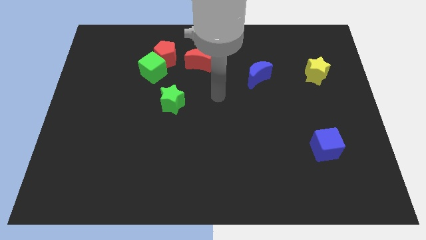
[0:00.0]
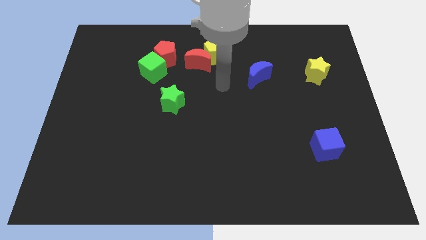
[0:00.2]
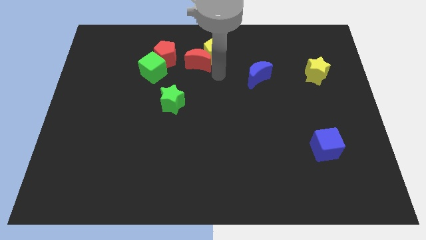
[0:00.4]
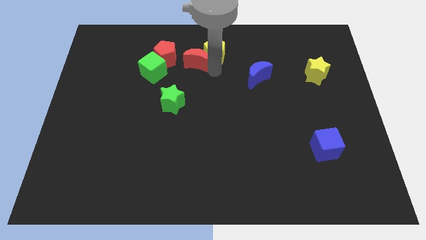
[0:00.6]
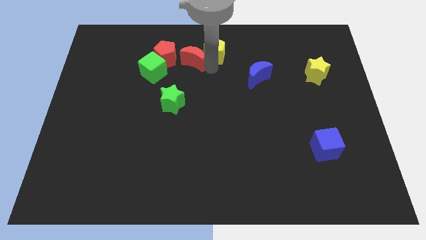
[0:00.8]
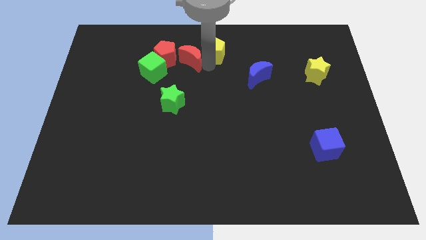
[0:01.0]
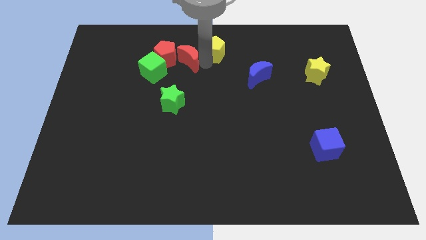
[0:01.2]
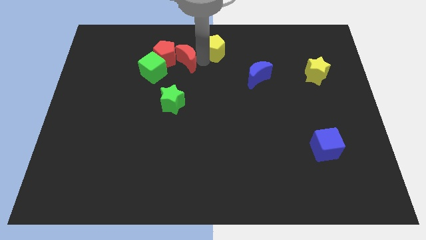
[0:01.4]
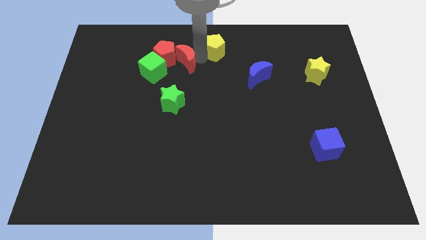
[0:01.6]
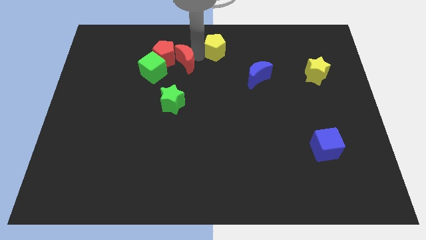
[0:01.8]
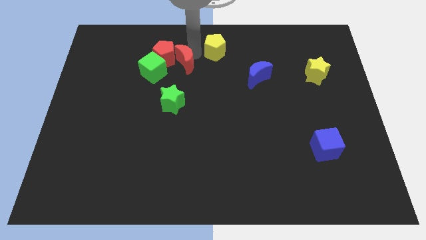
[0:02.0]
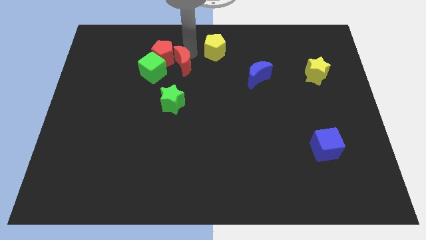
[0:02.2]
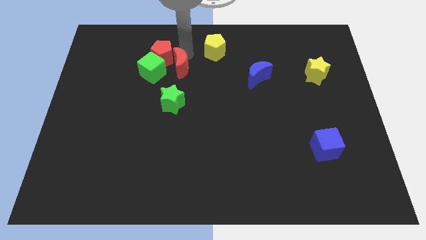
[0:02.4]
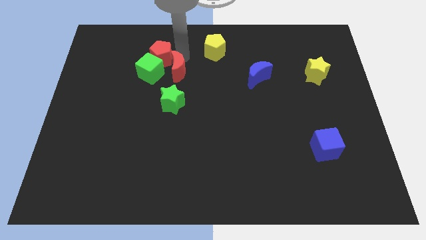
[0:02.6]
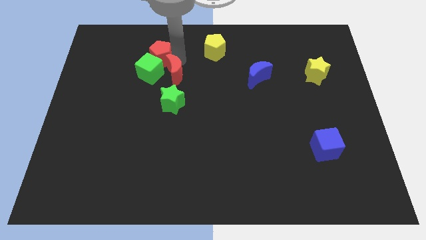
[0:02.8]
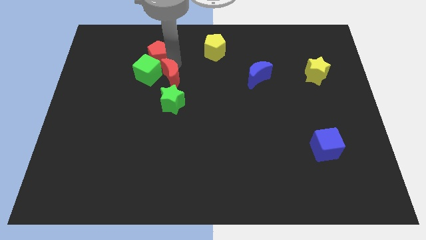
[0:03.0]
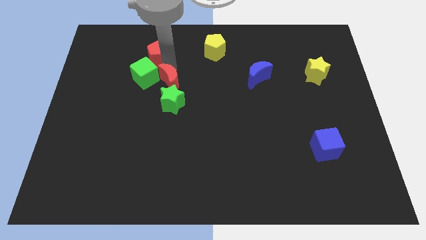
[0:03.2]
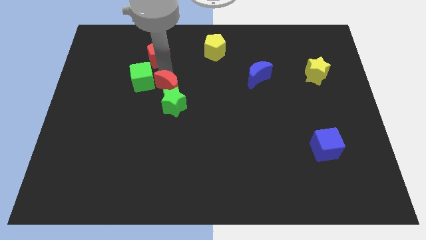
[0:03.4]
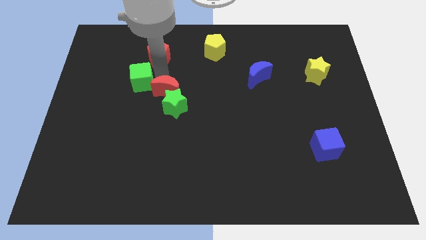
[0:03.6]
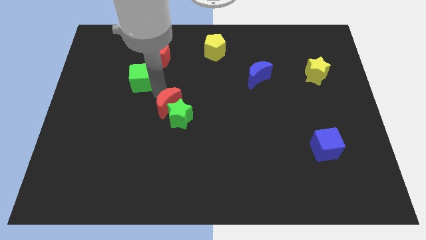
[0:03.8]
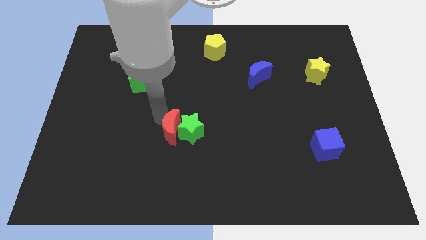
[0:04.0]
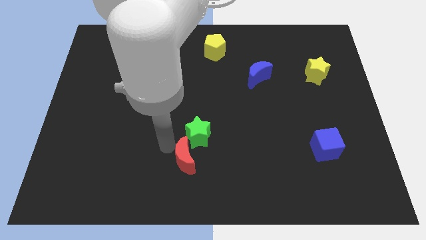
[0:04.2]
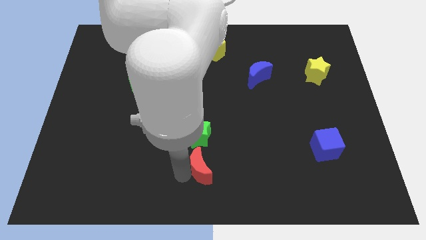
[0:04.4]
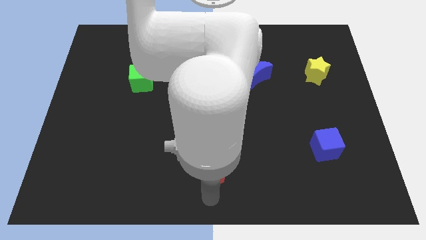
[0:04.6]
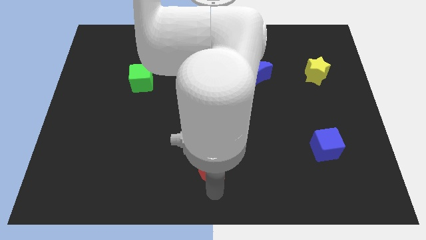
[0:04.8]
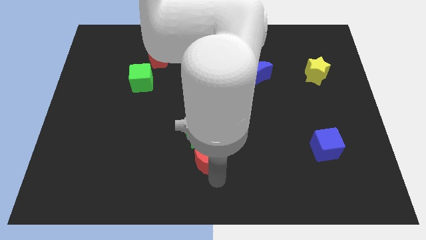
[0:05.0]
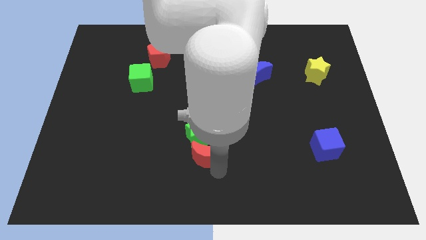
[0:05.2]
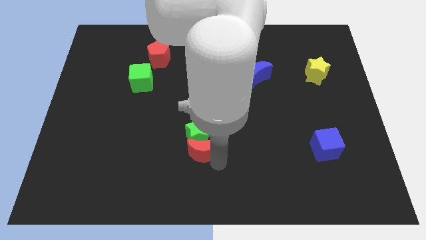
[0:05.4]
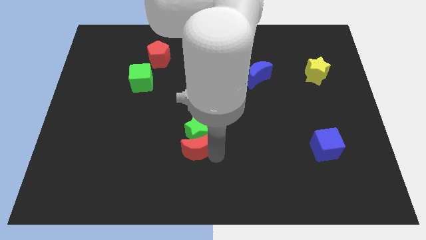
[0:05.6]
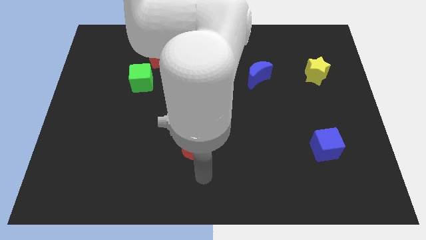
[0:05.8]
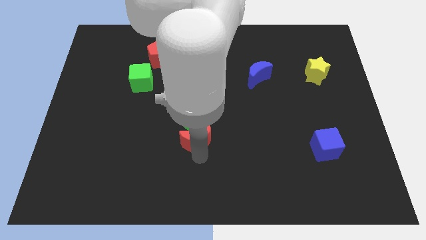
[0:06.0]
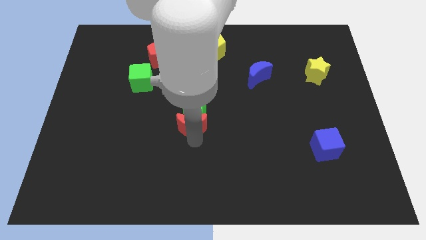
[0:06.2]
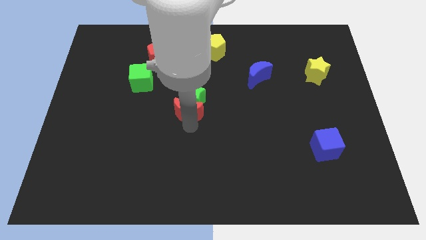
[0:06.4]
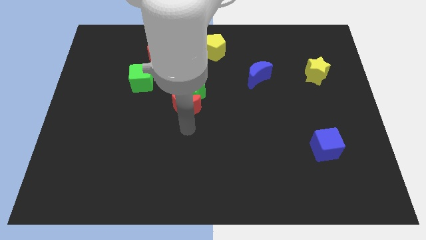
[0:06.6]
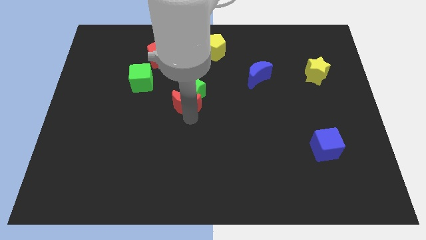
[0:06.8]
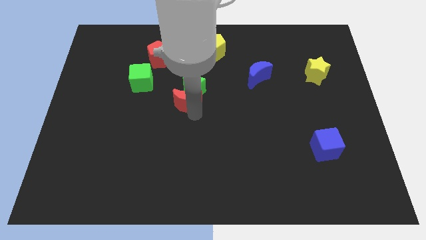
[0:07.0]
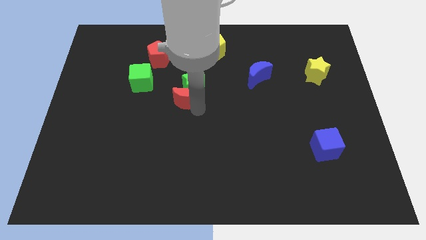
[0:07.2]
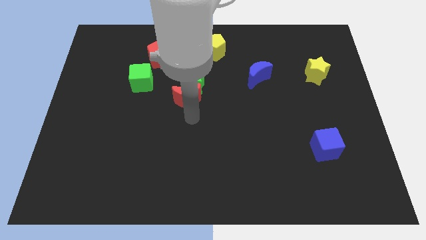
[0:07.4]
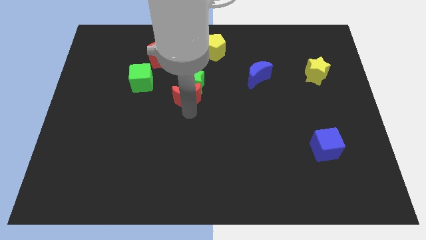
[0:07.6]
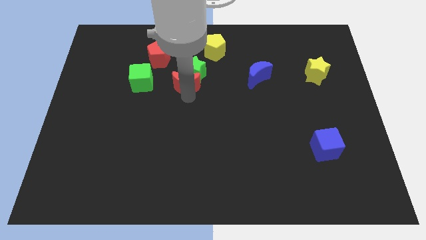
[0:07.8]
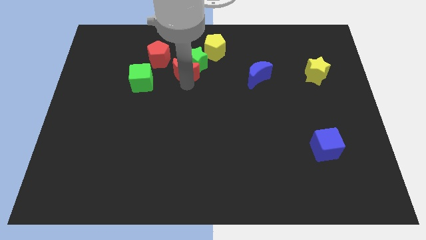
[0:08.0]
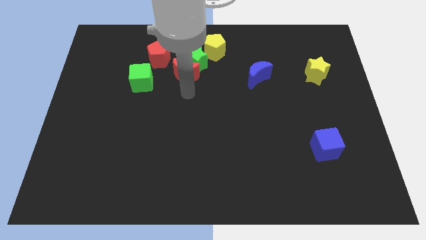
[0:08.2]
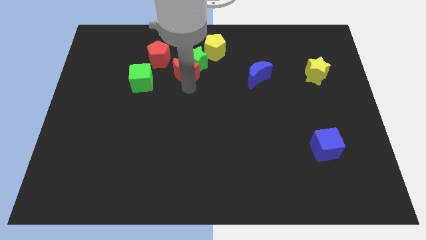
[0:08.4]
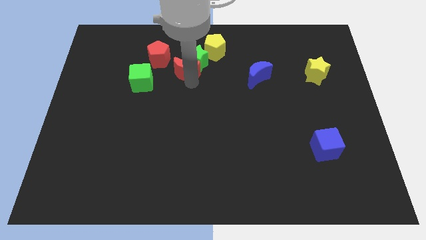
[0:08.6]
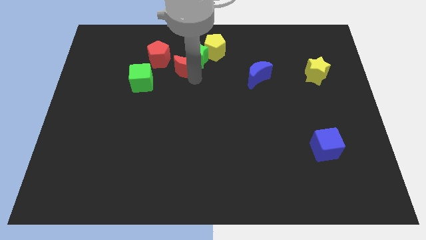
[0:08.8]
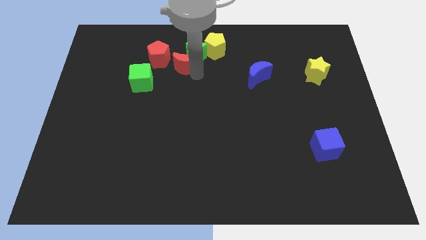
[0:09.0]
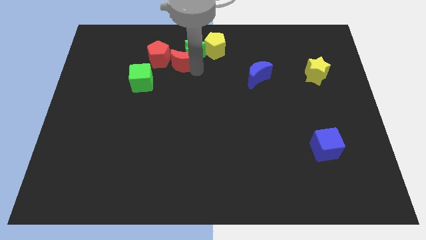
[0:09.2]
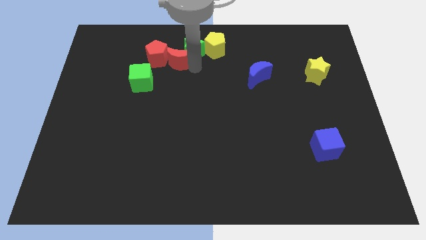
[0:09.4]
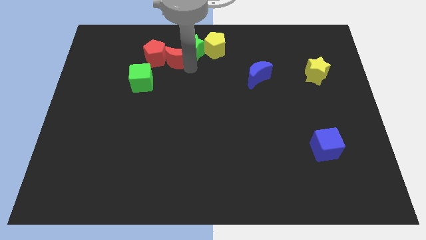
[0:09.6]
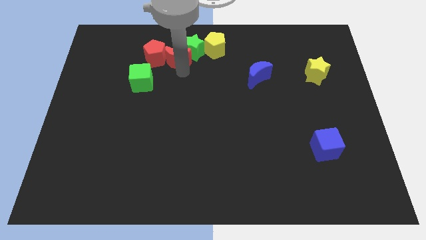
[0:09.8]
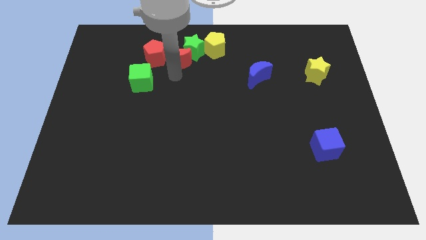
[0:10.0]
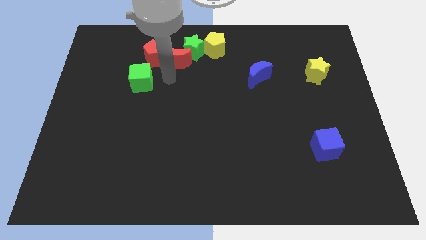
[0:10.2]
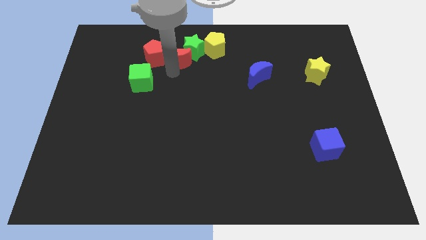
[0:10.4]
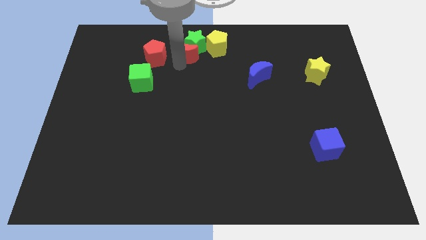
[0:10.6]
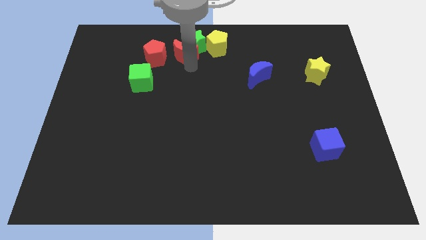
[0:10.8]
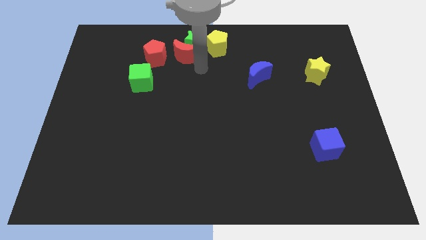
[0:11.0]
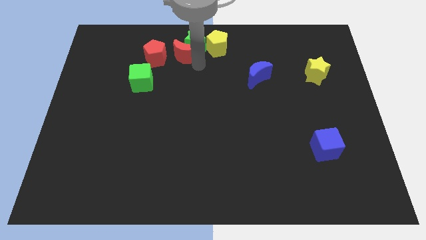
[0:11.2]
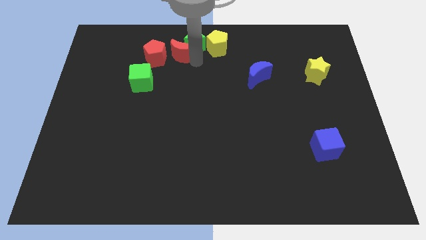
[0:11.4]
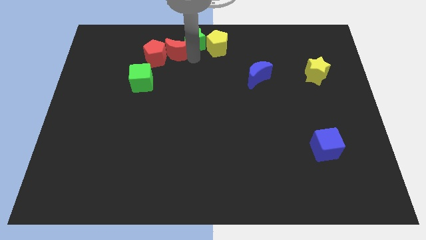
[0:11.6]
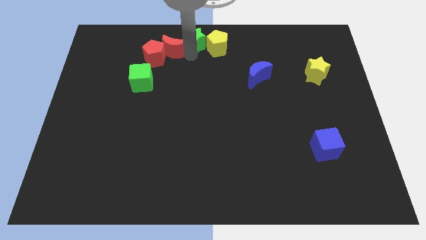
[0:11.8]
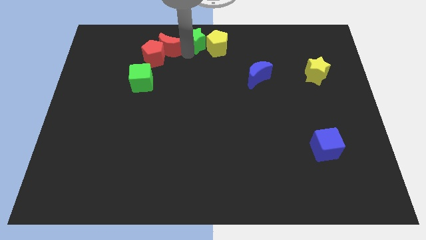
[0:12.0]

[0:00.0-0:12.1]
push the red moon a little left

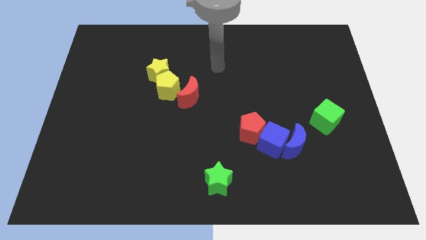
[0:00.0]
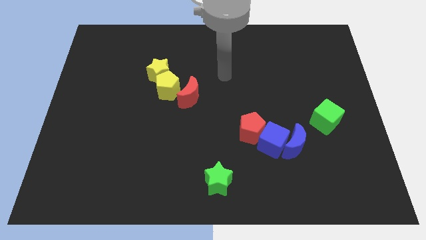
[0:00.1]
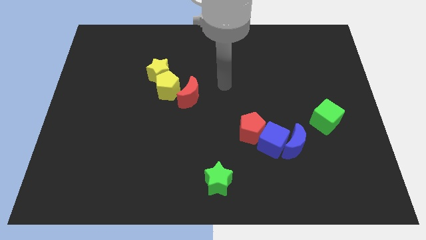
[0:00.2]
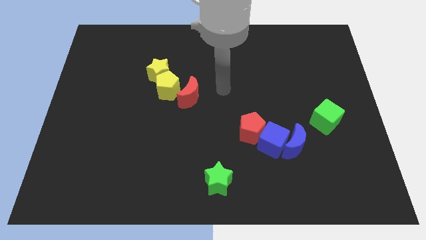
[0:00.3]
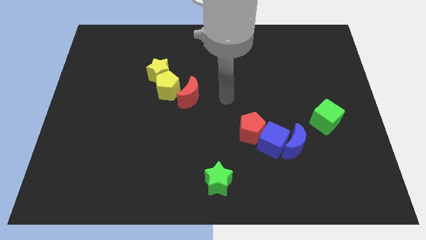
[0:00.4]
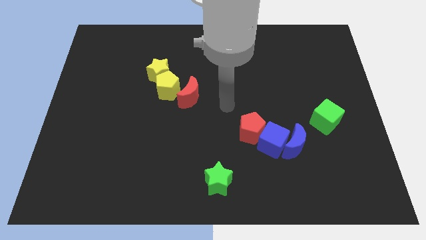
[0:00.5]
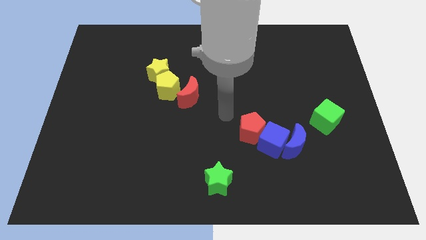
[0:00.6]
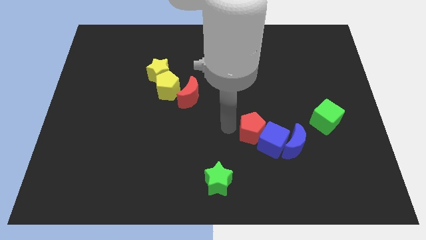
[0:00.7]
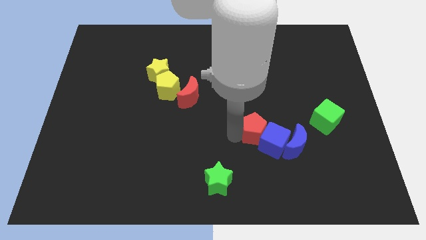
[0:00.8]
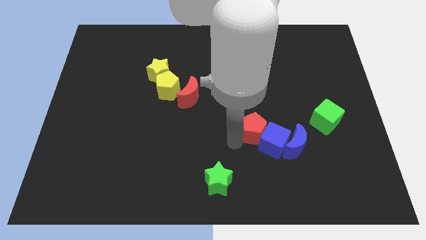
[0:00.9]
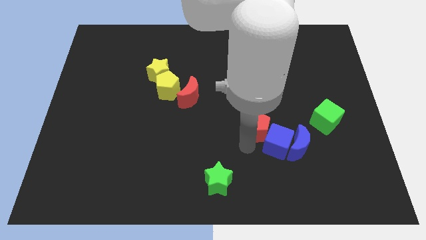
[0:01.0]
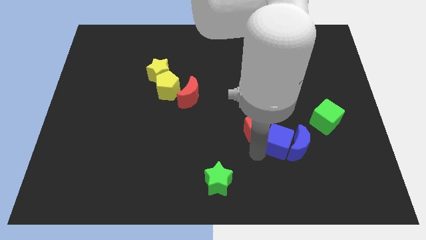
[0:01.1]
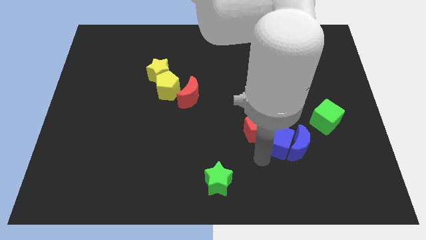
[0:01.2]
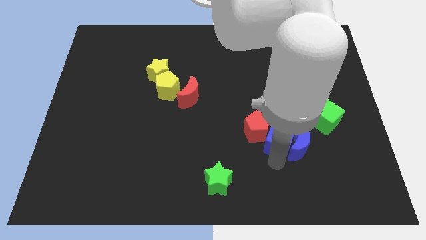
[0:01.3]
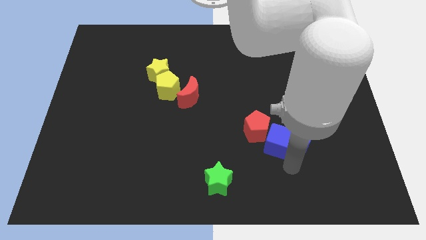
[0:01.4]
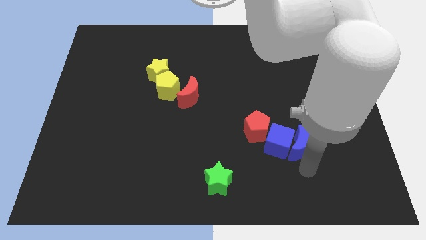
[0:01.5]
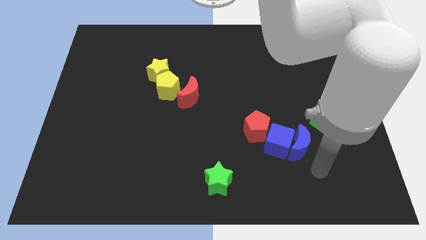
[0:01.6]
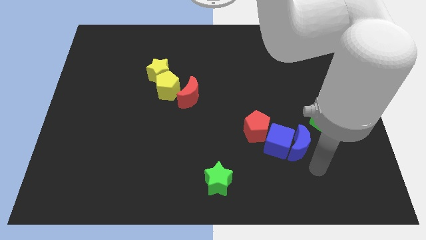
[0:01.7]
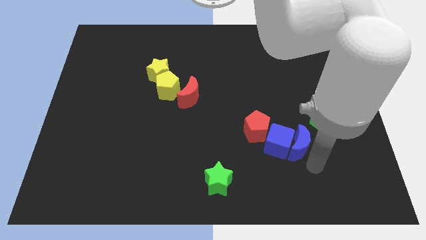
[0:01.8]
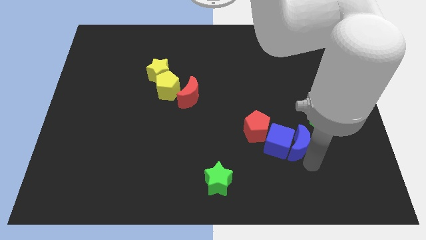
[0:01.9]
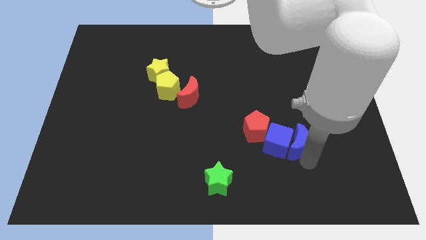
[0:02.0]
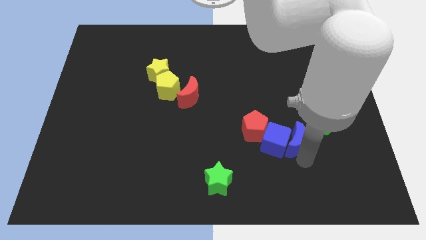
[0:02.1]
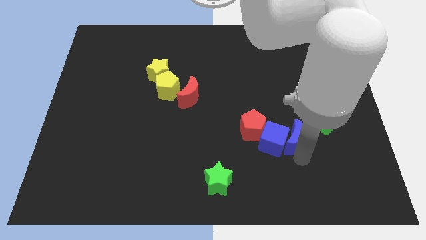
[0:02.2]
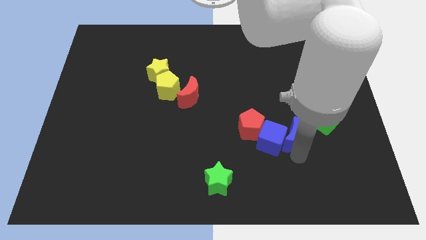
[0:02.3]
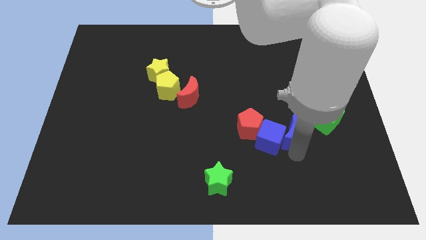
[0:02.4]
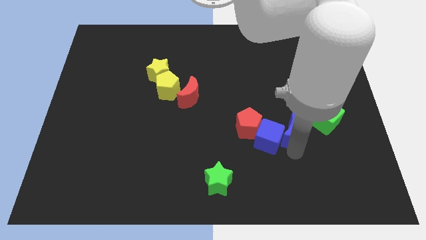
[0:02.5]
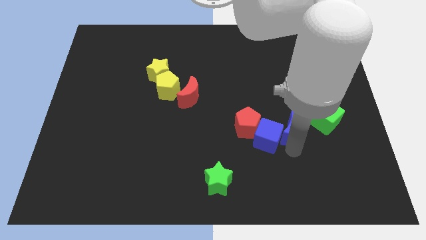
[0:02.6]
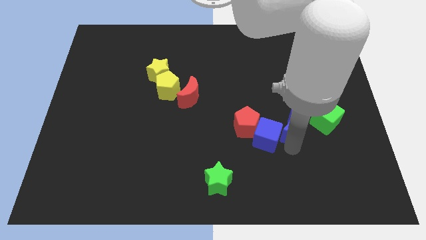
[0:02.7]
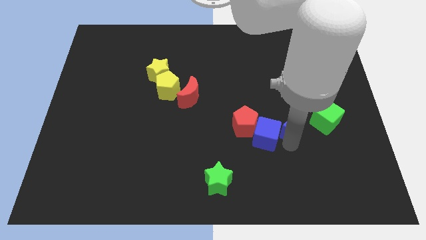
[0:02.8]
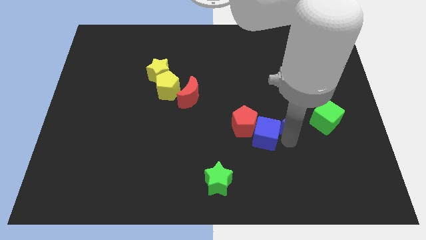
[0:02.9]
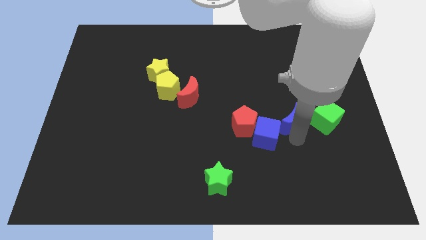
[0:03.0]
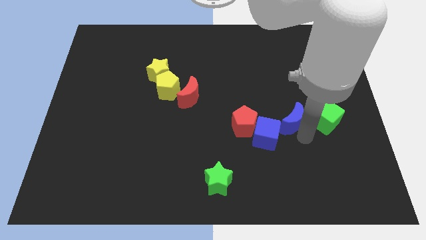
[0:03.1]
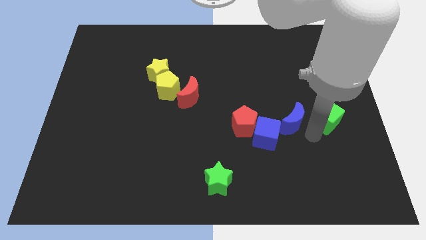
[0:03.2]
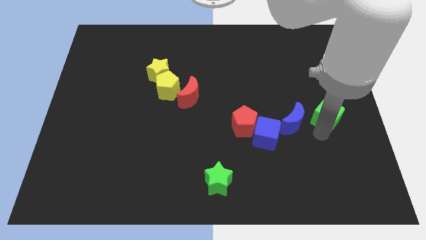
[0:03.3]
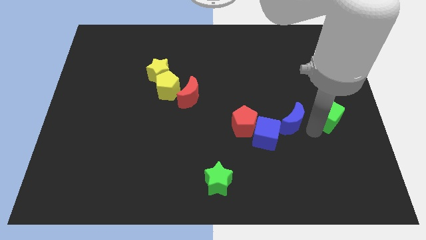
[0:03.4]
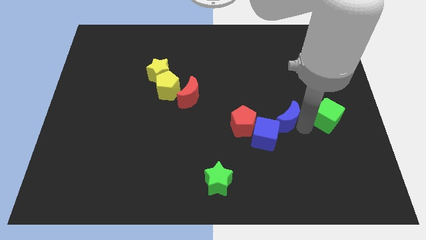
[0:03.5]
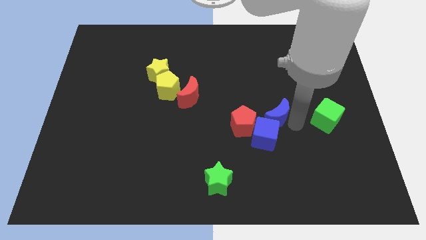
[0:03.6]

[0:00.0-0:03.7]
push the blue moon up and left a little
